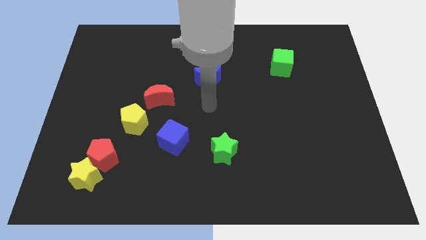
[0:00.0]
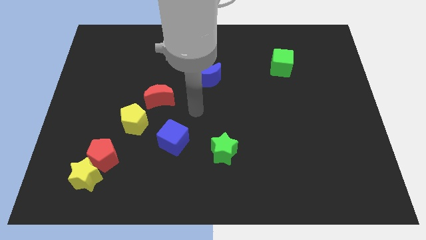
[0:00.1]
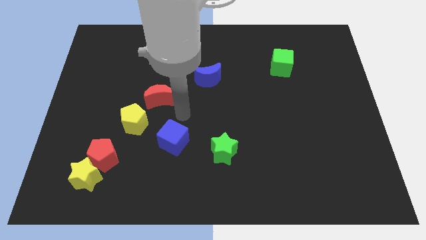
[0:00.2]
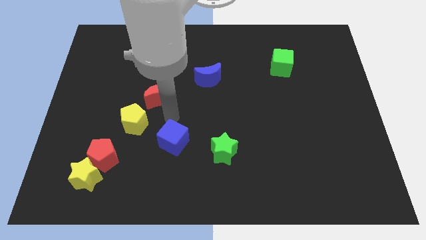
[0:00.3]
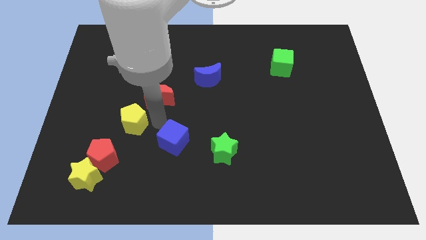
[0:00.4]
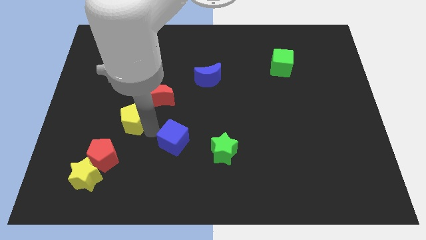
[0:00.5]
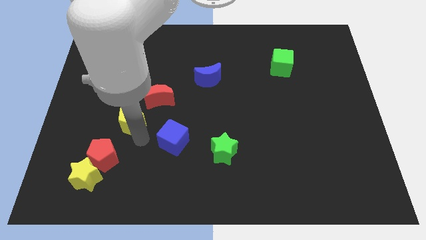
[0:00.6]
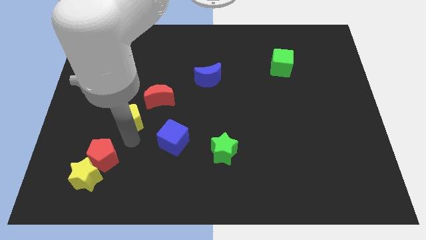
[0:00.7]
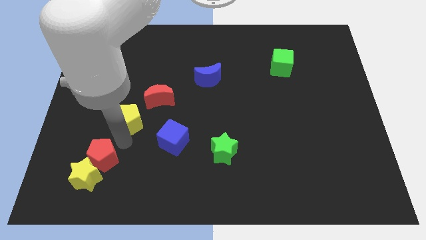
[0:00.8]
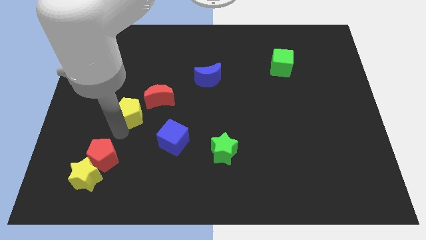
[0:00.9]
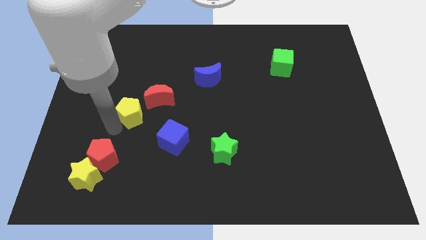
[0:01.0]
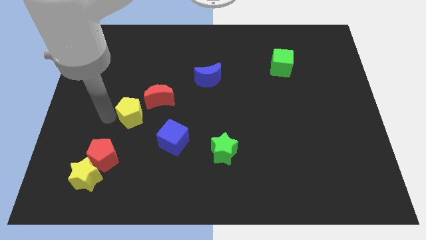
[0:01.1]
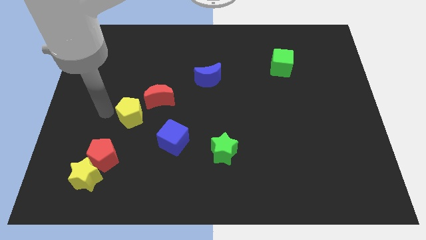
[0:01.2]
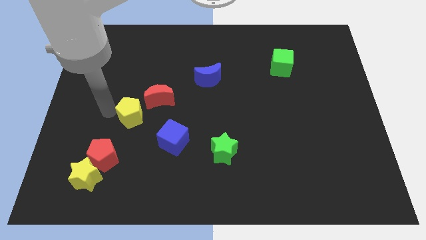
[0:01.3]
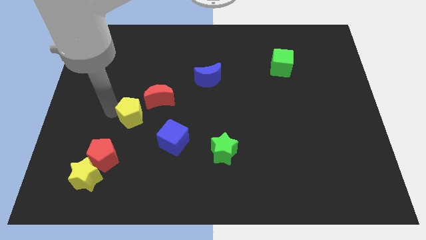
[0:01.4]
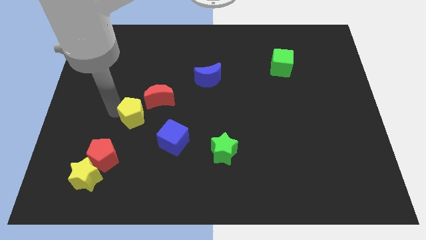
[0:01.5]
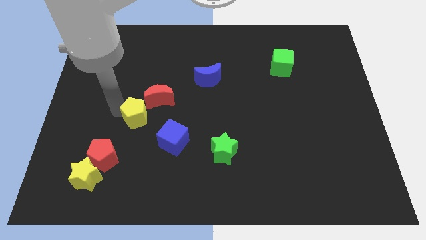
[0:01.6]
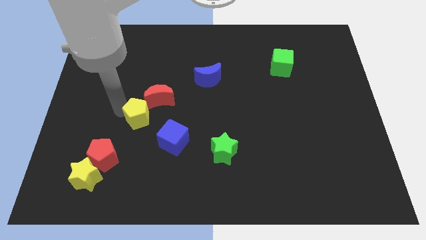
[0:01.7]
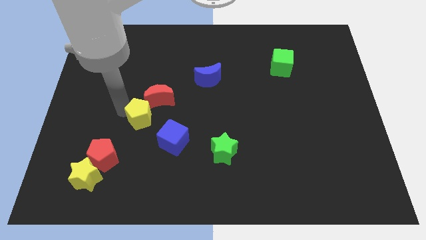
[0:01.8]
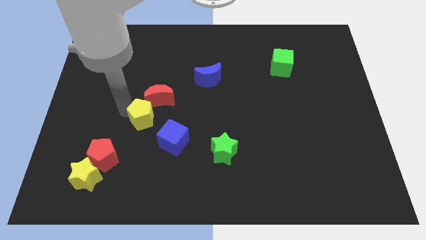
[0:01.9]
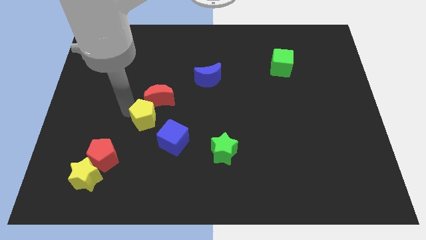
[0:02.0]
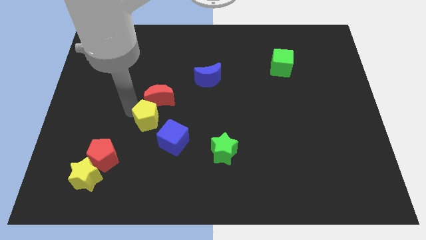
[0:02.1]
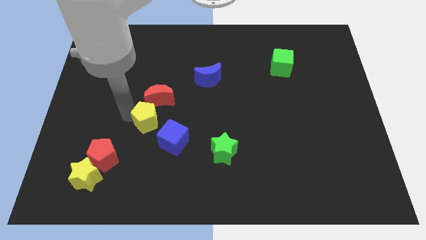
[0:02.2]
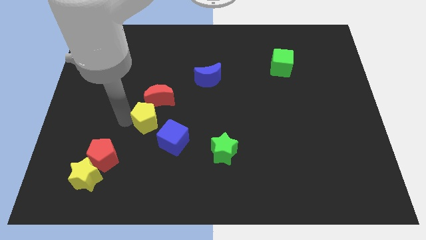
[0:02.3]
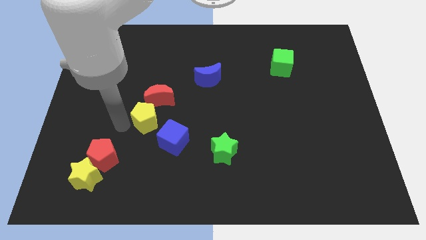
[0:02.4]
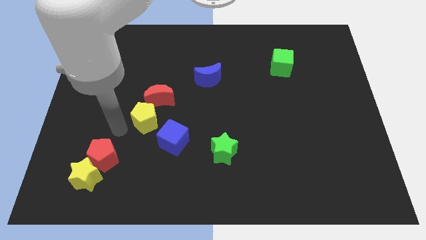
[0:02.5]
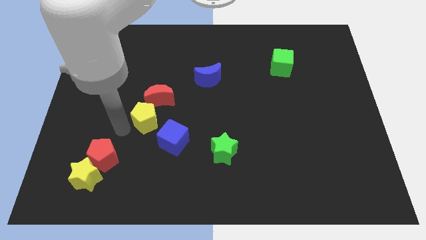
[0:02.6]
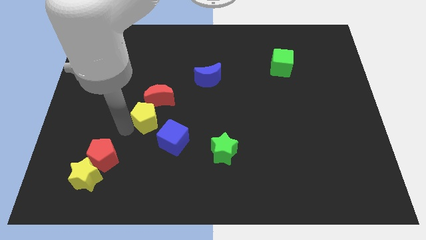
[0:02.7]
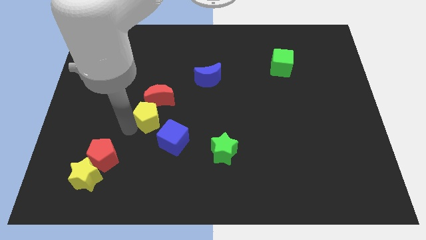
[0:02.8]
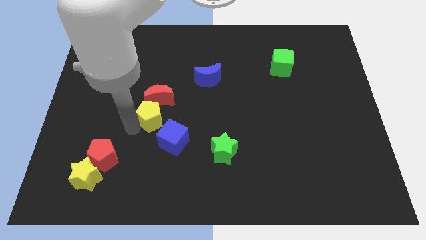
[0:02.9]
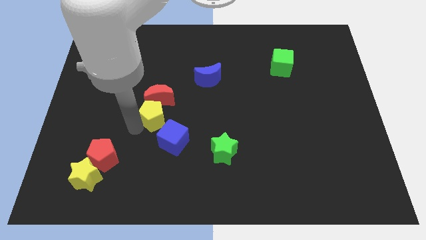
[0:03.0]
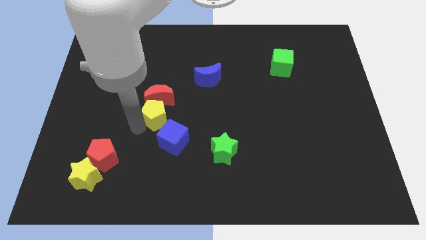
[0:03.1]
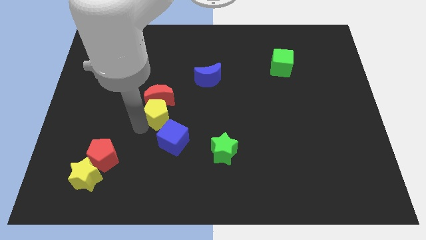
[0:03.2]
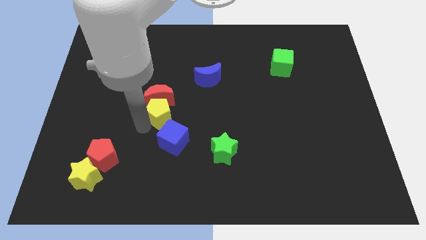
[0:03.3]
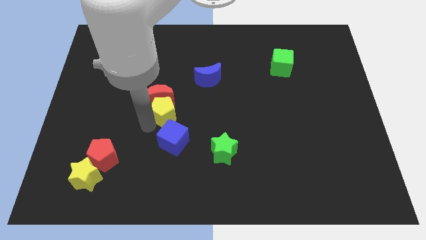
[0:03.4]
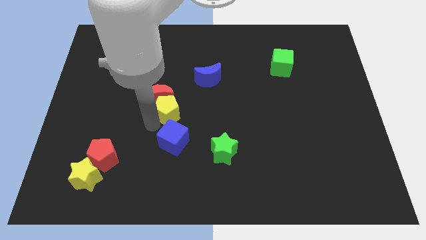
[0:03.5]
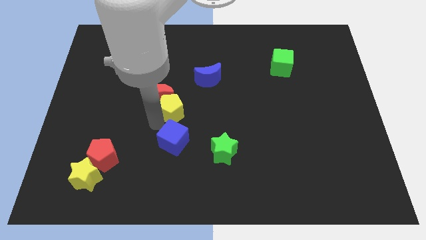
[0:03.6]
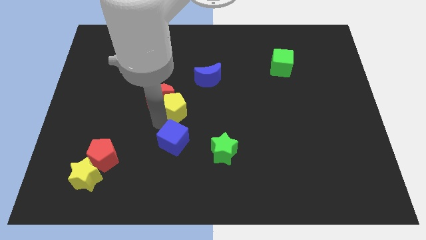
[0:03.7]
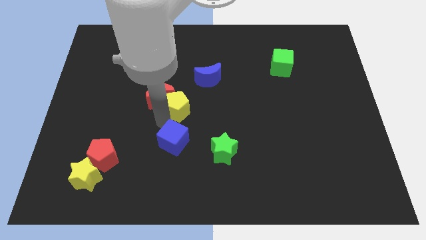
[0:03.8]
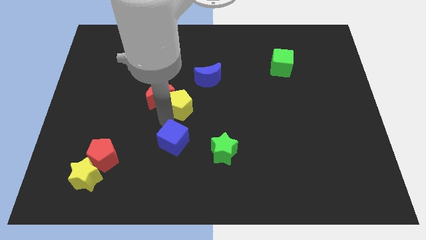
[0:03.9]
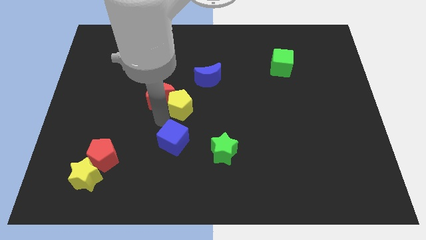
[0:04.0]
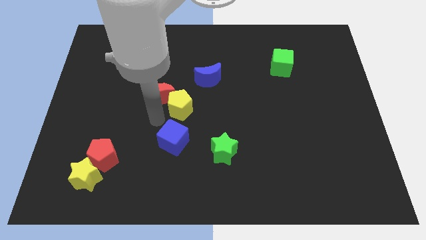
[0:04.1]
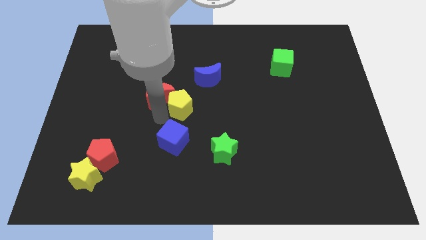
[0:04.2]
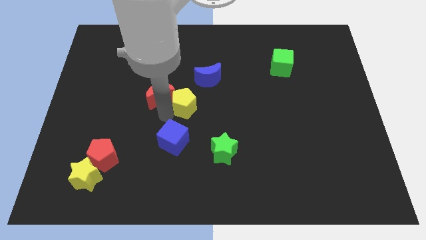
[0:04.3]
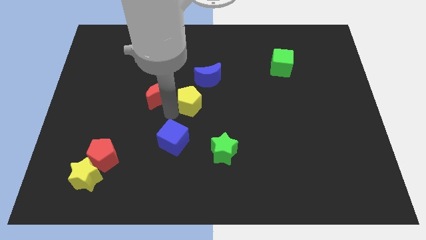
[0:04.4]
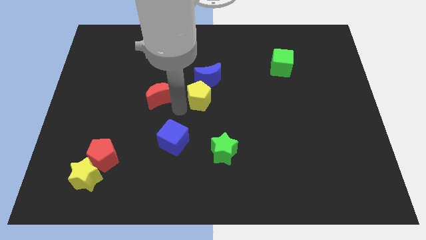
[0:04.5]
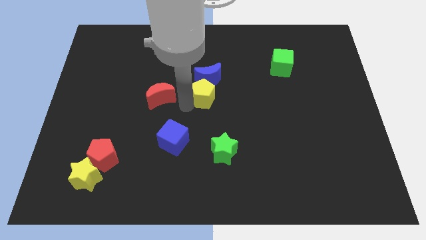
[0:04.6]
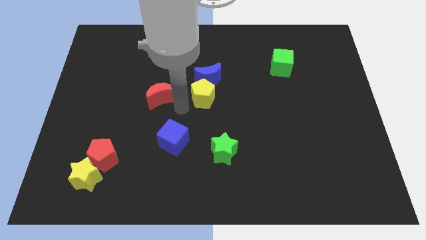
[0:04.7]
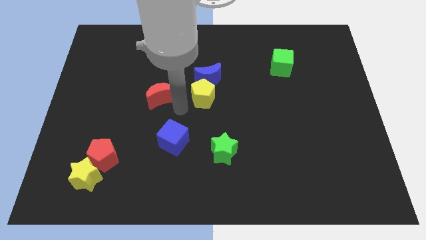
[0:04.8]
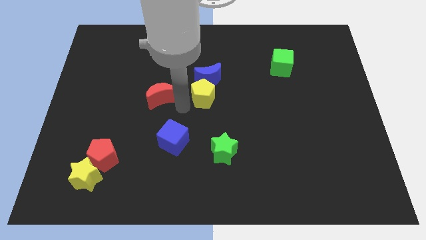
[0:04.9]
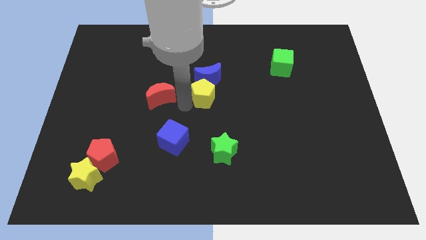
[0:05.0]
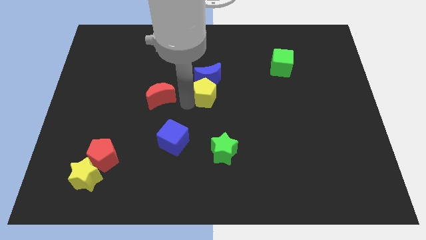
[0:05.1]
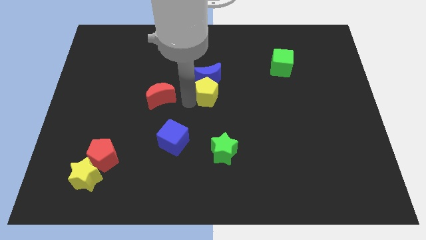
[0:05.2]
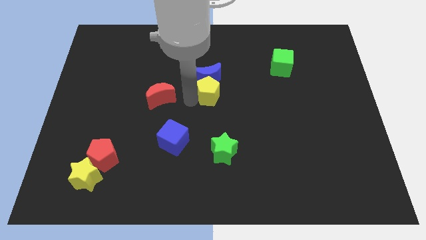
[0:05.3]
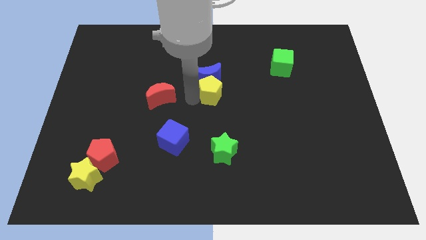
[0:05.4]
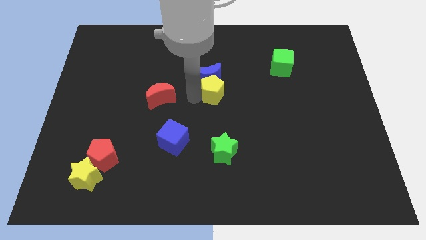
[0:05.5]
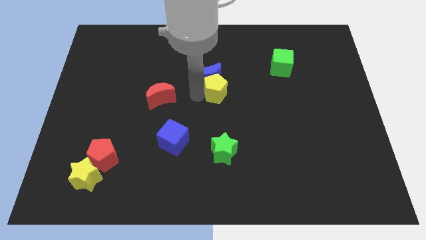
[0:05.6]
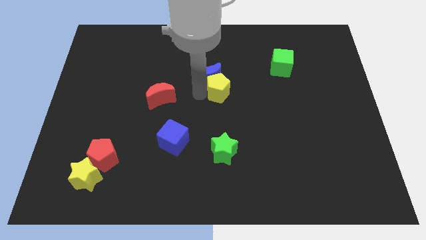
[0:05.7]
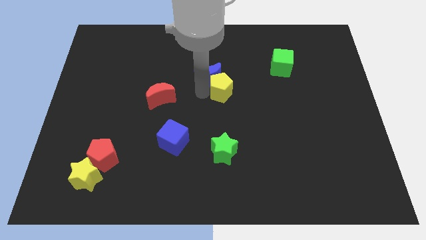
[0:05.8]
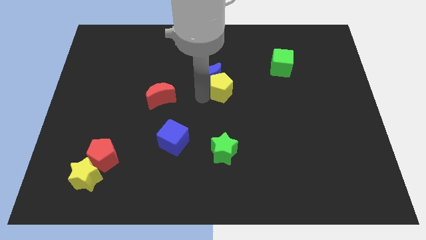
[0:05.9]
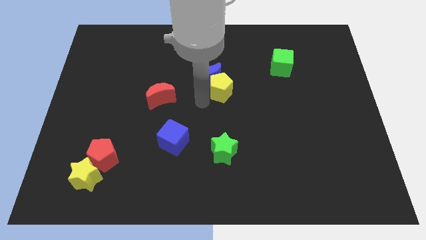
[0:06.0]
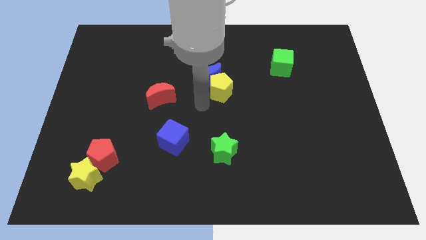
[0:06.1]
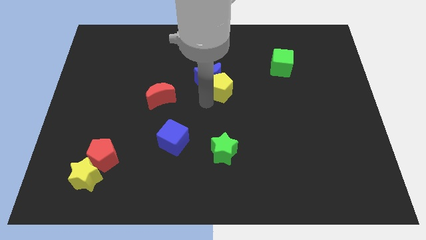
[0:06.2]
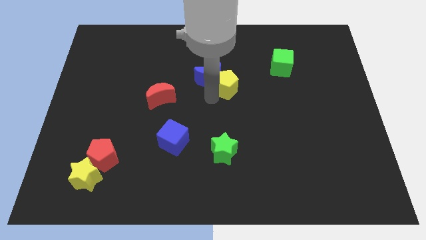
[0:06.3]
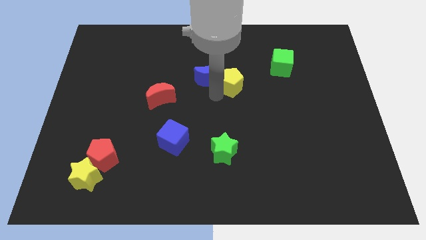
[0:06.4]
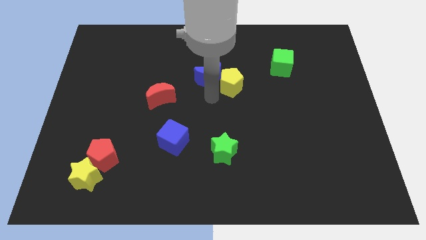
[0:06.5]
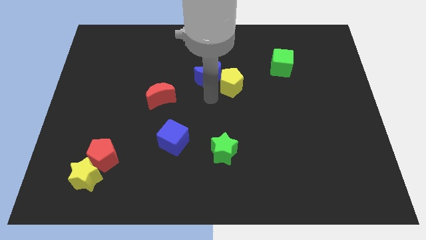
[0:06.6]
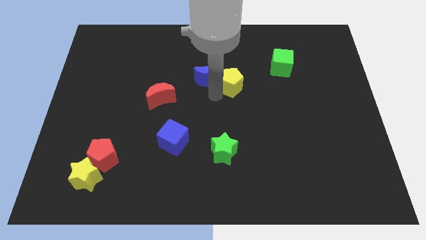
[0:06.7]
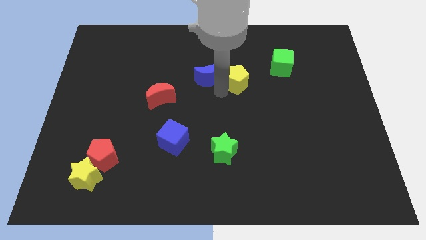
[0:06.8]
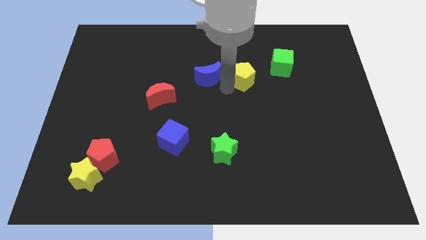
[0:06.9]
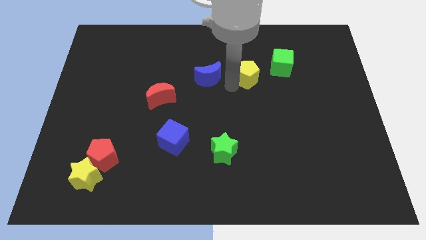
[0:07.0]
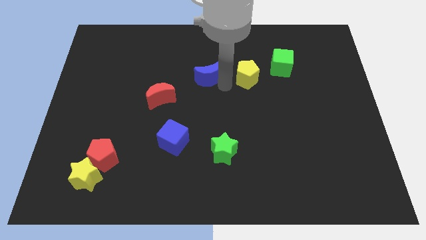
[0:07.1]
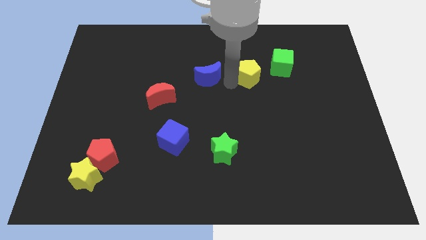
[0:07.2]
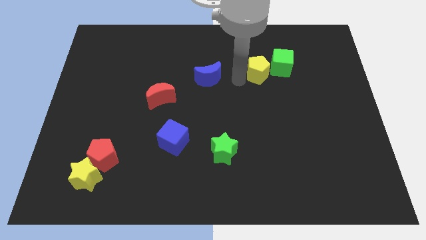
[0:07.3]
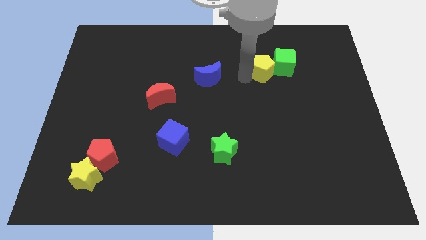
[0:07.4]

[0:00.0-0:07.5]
put the yellow pentagon close to the green cube
